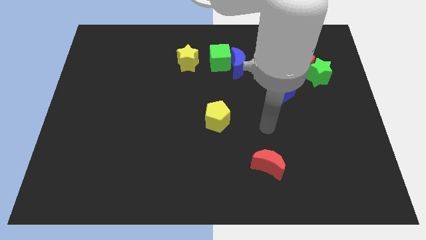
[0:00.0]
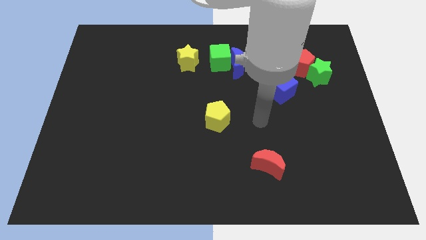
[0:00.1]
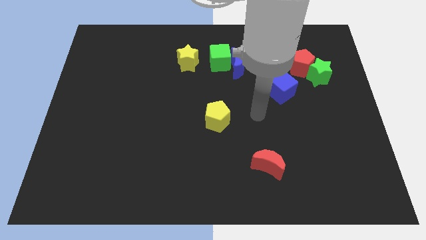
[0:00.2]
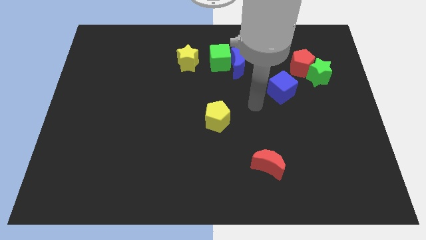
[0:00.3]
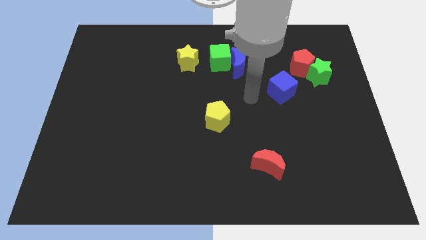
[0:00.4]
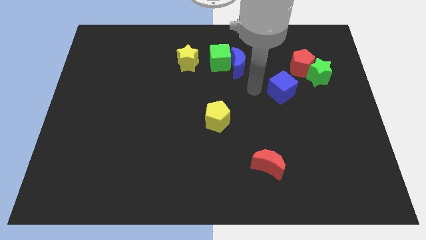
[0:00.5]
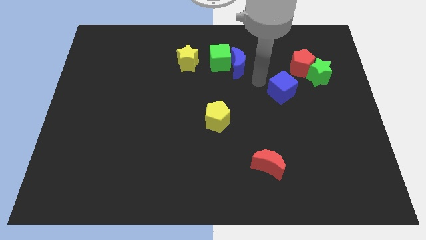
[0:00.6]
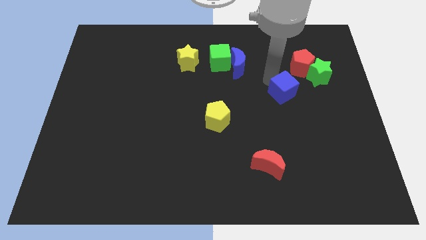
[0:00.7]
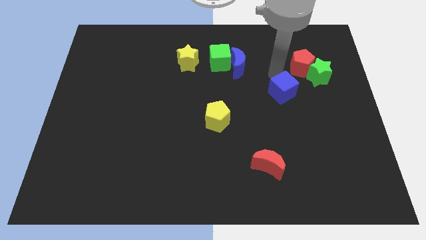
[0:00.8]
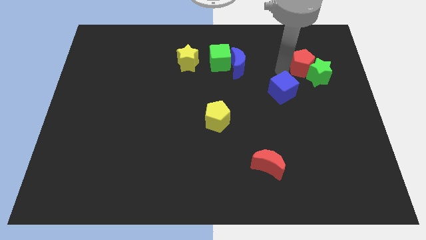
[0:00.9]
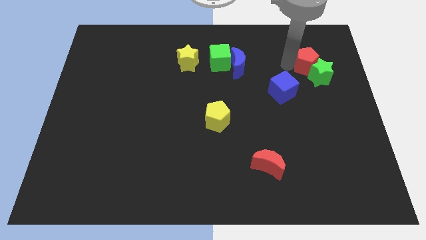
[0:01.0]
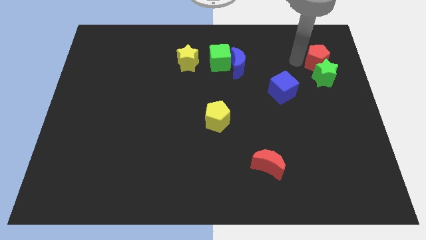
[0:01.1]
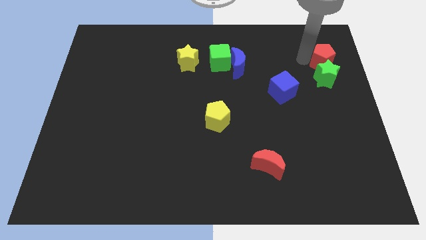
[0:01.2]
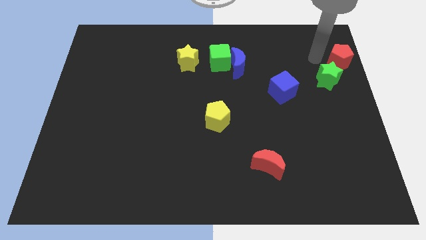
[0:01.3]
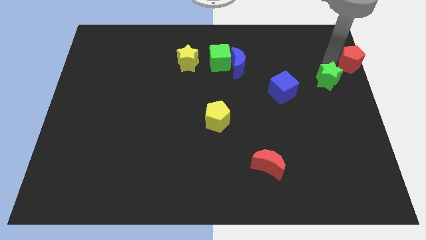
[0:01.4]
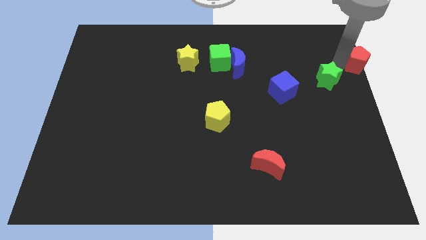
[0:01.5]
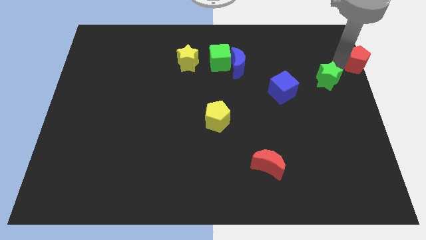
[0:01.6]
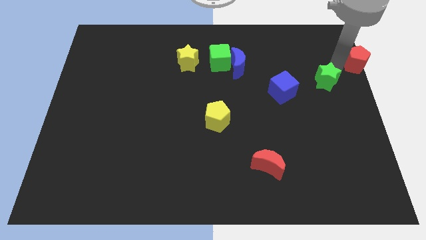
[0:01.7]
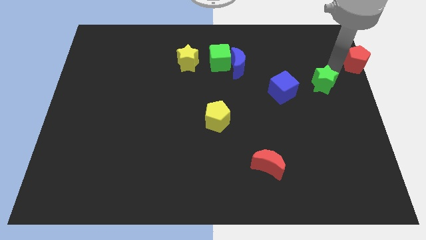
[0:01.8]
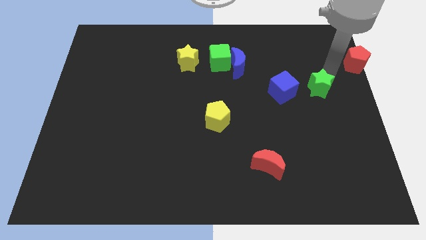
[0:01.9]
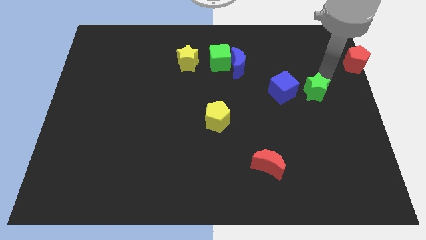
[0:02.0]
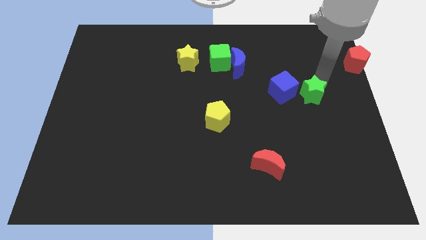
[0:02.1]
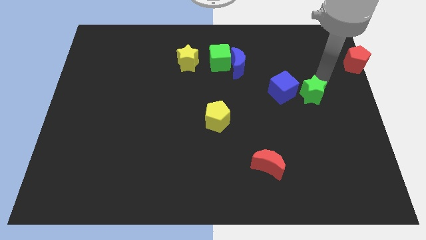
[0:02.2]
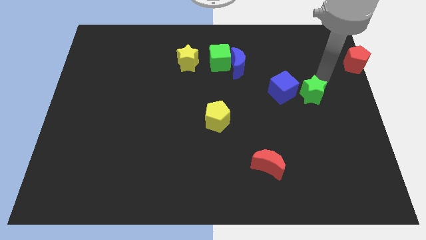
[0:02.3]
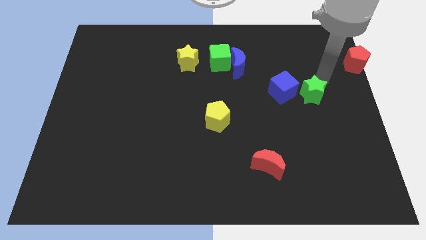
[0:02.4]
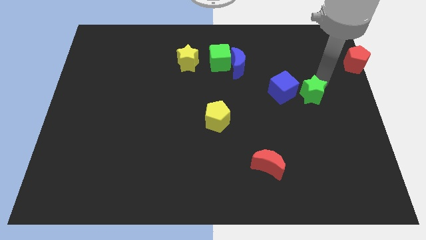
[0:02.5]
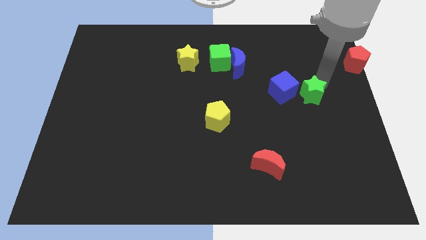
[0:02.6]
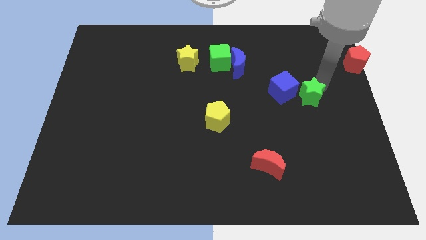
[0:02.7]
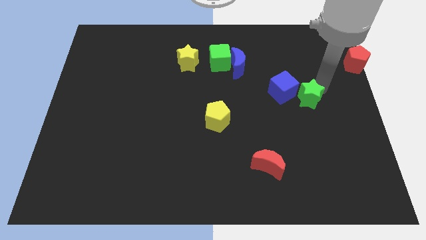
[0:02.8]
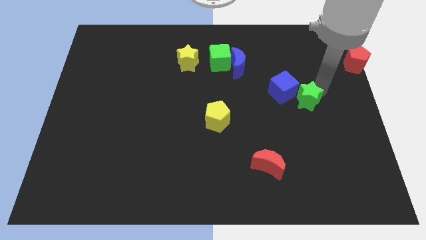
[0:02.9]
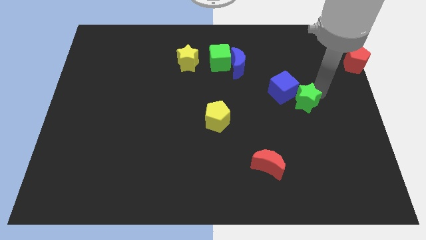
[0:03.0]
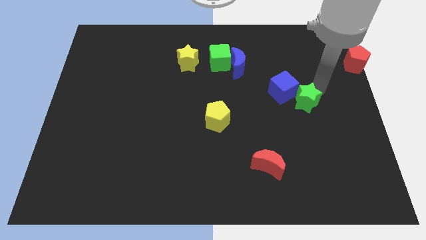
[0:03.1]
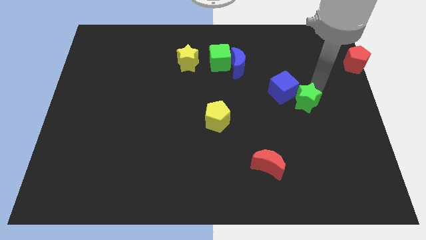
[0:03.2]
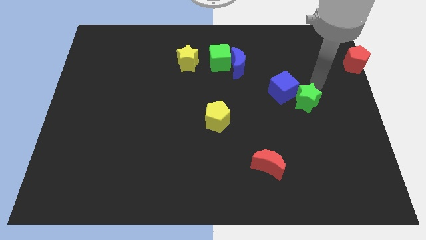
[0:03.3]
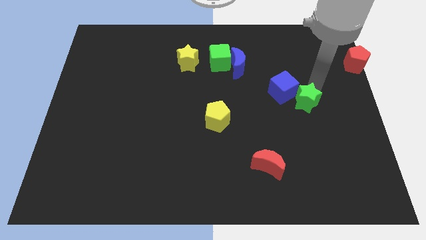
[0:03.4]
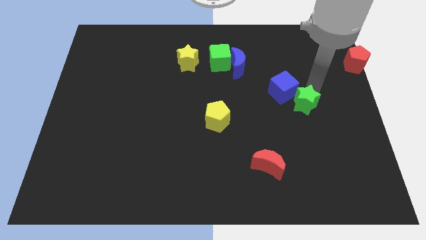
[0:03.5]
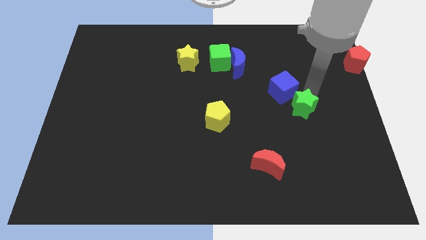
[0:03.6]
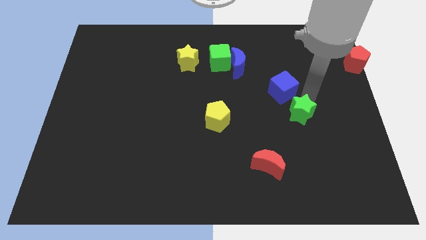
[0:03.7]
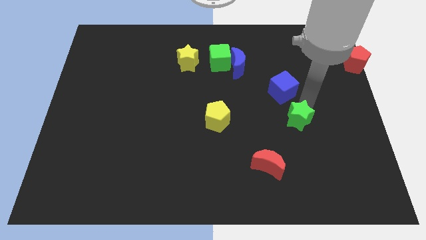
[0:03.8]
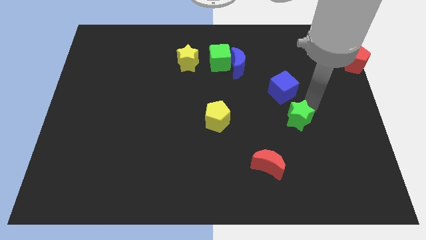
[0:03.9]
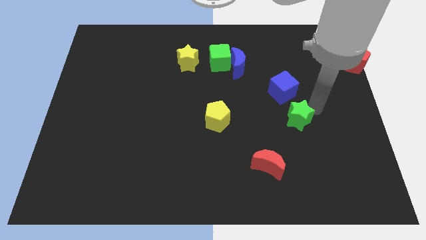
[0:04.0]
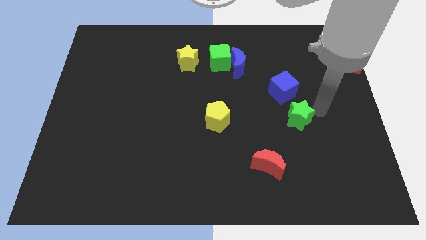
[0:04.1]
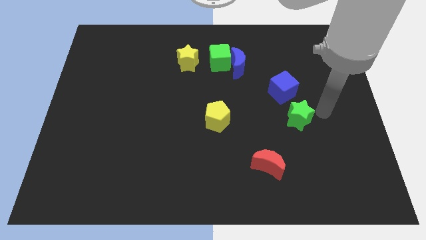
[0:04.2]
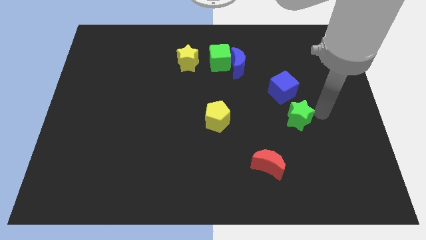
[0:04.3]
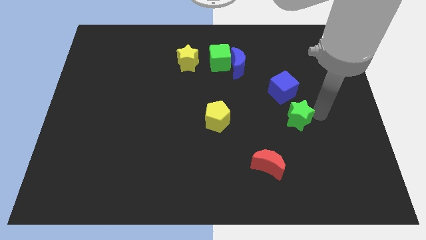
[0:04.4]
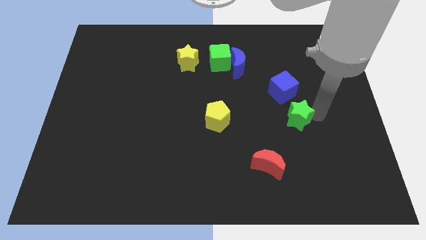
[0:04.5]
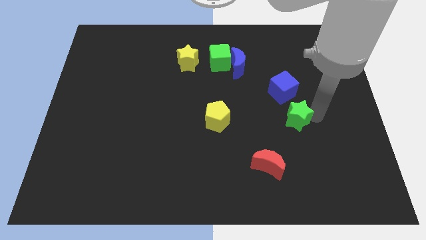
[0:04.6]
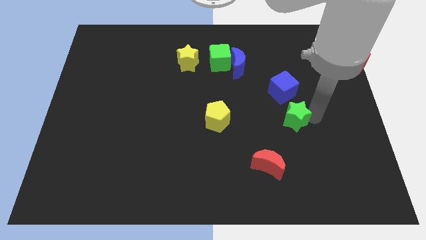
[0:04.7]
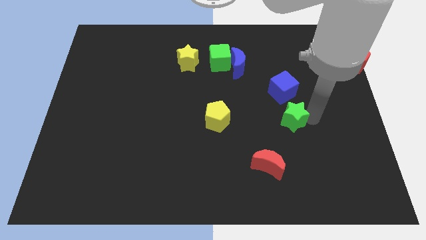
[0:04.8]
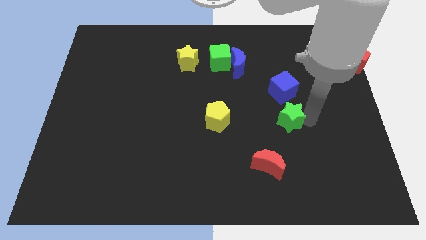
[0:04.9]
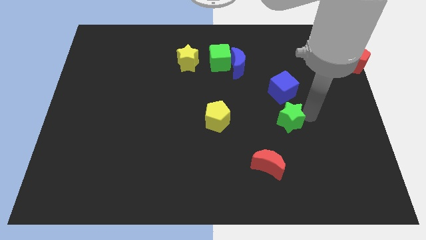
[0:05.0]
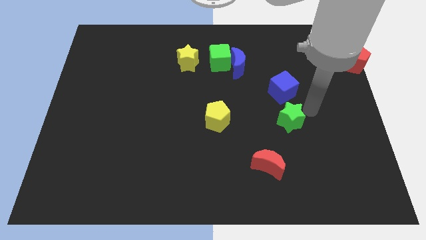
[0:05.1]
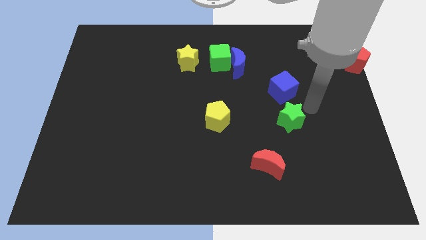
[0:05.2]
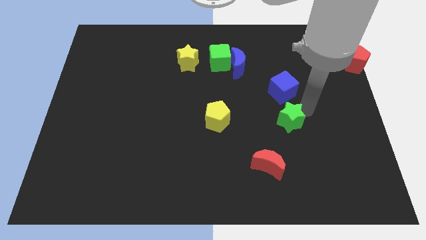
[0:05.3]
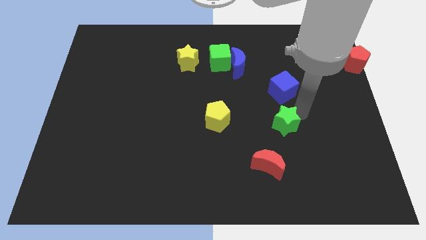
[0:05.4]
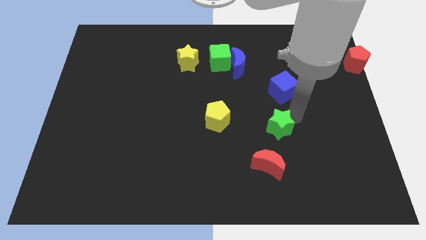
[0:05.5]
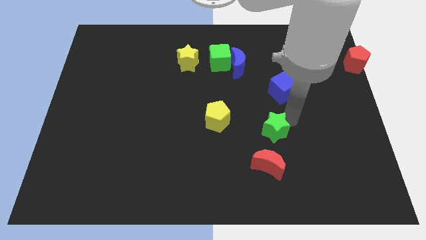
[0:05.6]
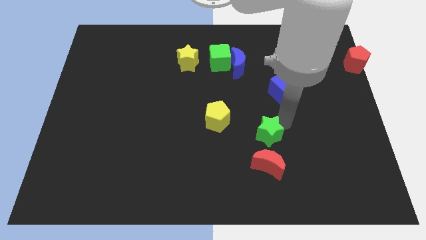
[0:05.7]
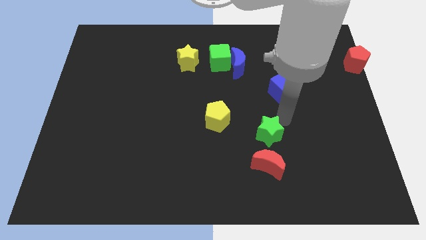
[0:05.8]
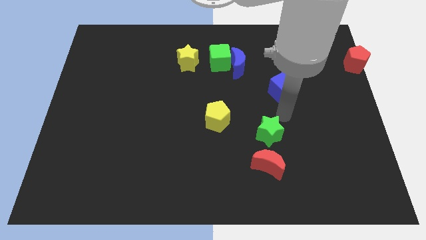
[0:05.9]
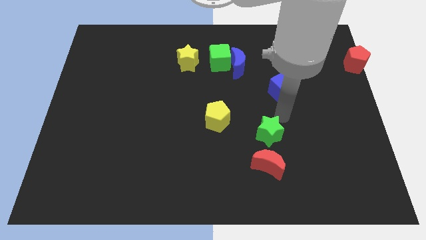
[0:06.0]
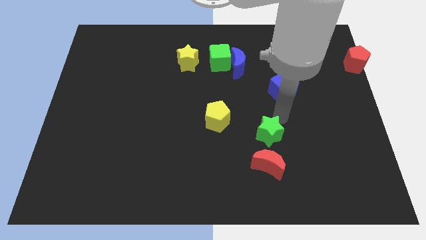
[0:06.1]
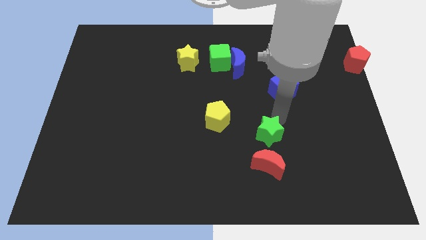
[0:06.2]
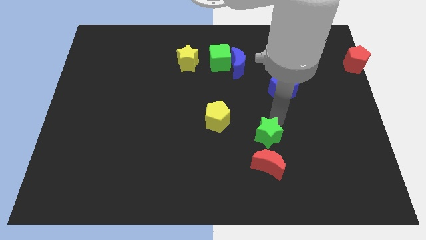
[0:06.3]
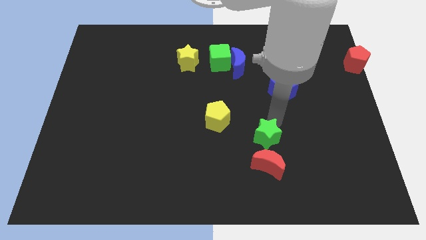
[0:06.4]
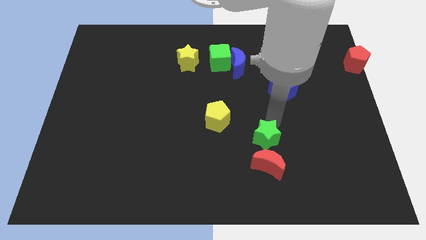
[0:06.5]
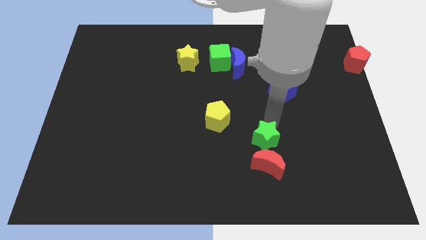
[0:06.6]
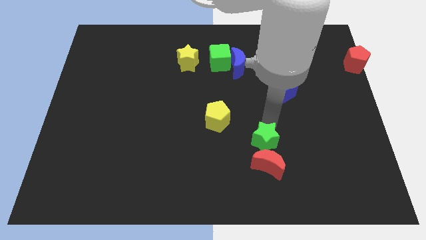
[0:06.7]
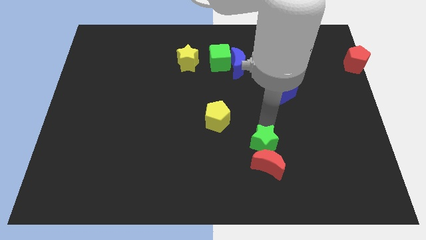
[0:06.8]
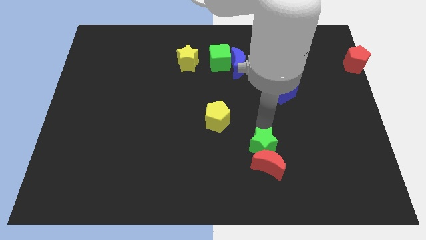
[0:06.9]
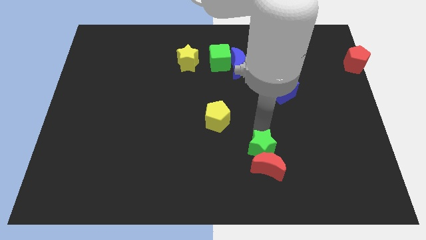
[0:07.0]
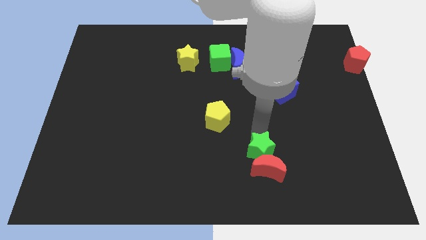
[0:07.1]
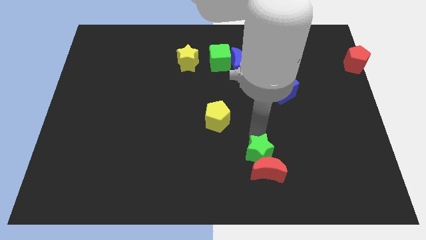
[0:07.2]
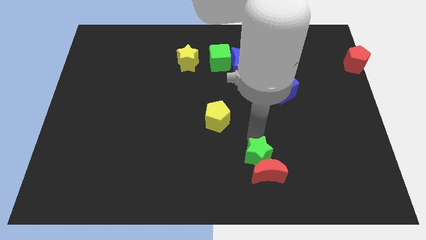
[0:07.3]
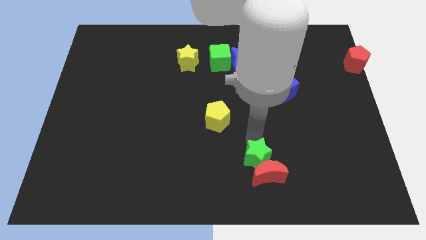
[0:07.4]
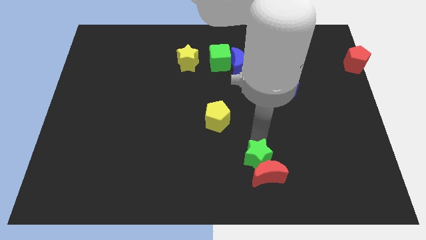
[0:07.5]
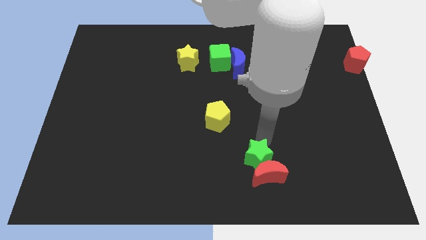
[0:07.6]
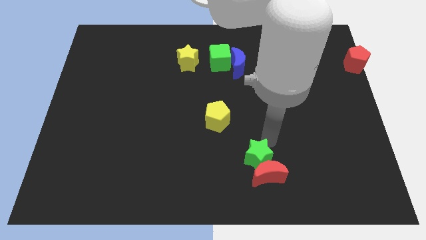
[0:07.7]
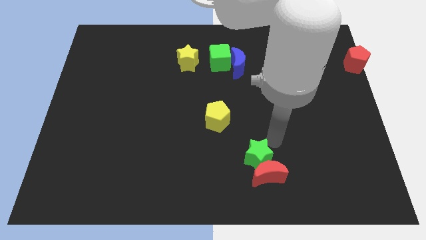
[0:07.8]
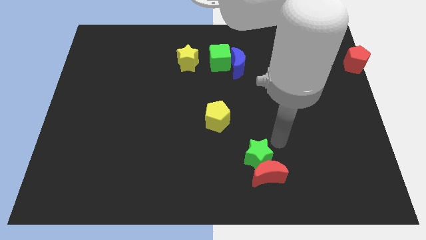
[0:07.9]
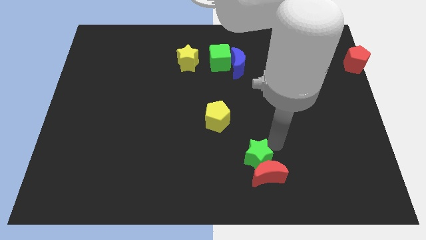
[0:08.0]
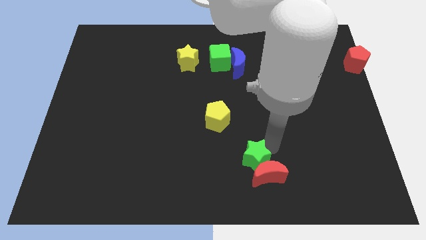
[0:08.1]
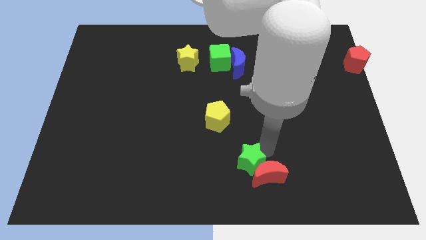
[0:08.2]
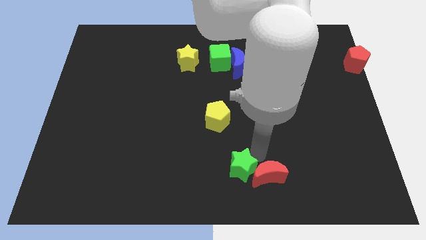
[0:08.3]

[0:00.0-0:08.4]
push the green star to the bottom
